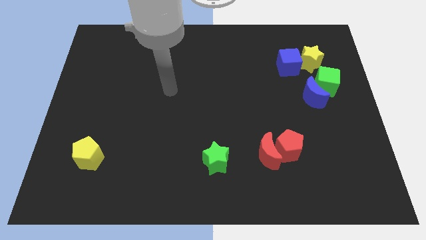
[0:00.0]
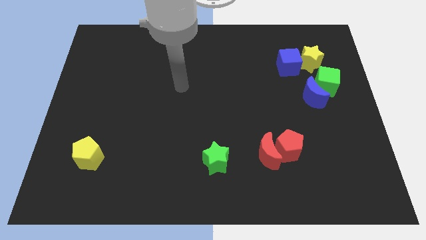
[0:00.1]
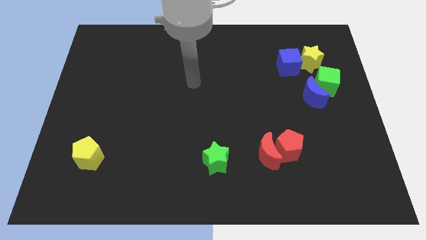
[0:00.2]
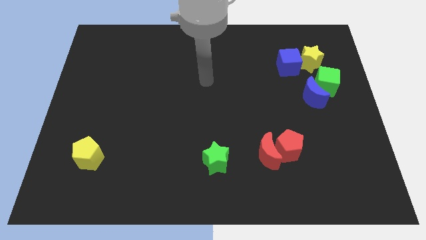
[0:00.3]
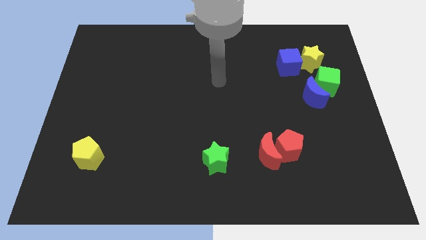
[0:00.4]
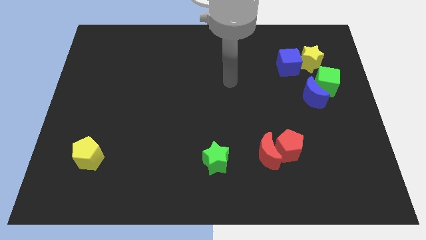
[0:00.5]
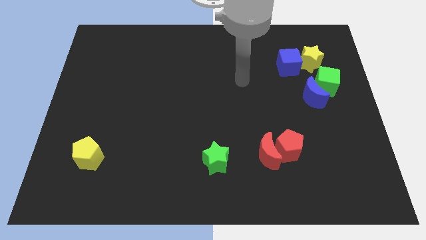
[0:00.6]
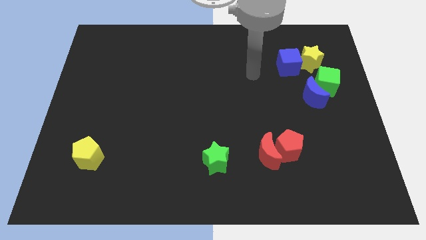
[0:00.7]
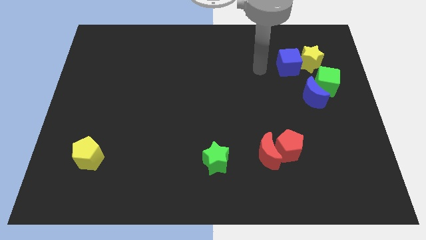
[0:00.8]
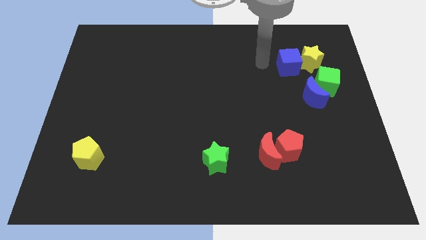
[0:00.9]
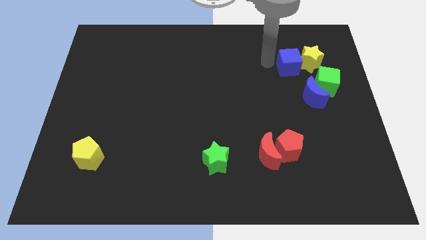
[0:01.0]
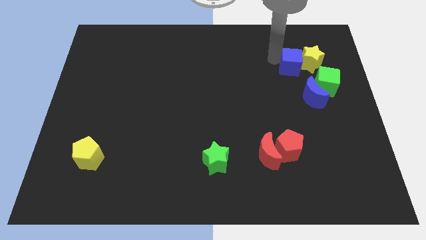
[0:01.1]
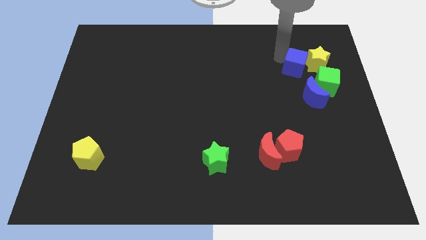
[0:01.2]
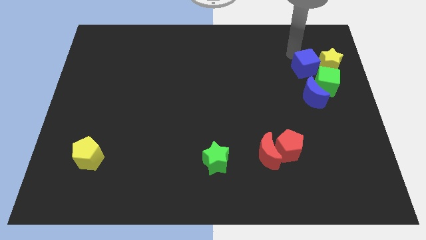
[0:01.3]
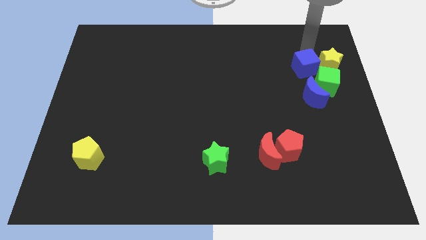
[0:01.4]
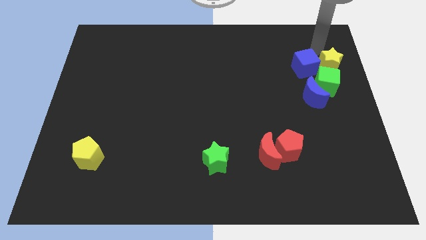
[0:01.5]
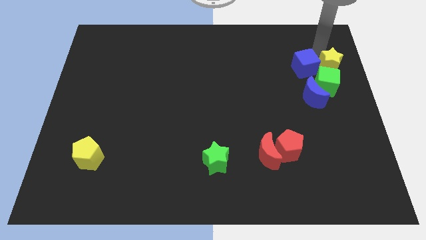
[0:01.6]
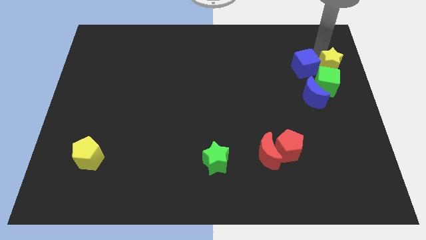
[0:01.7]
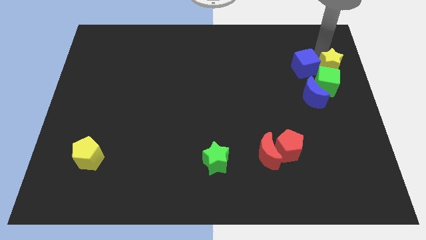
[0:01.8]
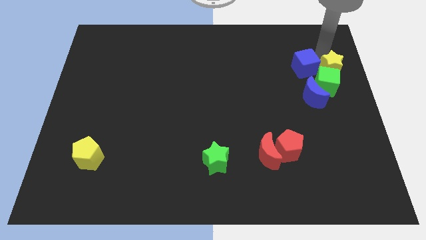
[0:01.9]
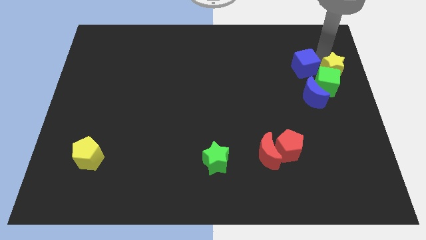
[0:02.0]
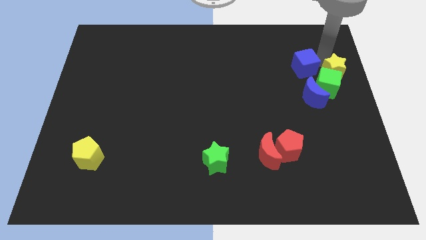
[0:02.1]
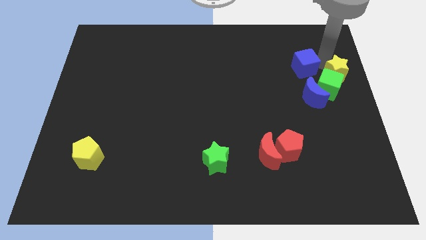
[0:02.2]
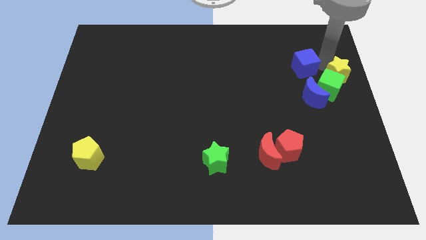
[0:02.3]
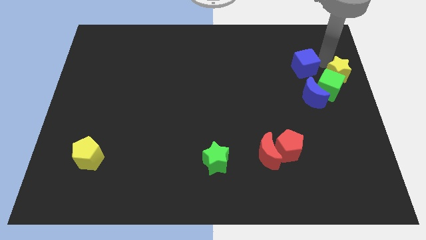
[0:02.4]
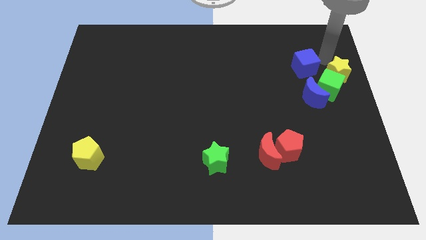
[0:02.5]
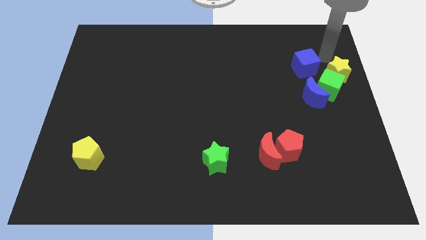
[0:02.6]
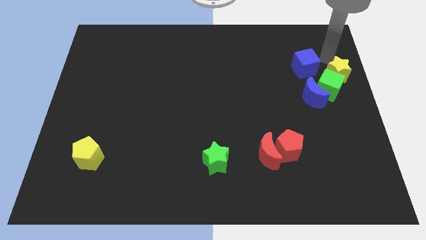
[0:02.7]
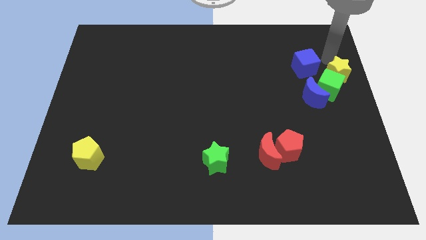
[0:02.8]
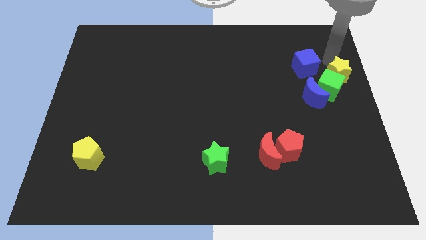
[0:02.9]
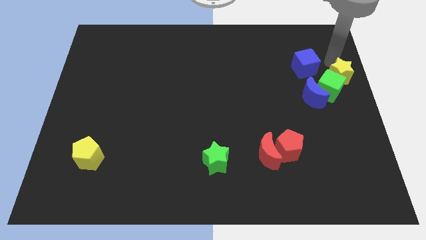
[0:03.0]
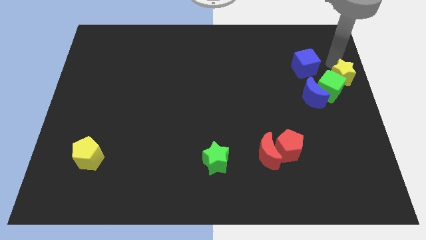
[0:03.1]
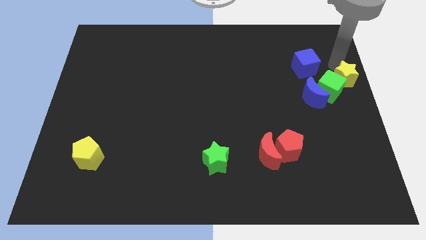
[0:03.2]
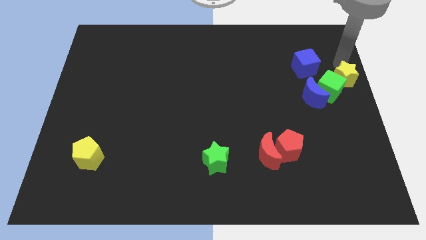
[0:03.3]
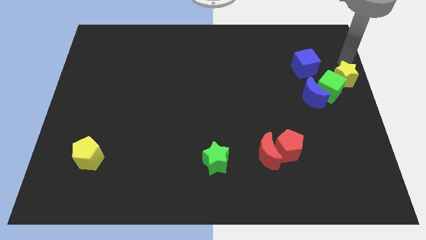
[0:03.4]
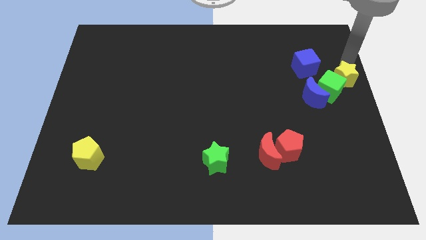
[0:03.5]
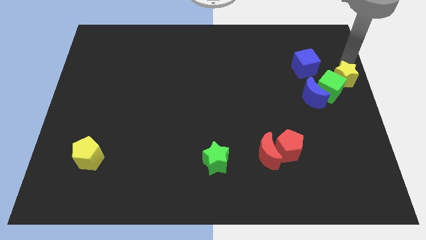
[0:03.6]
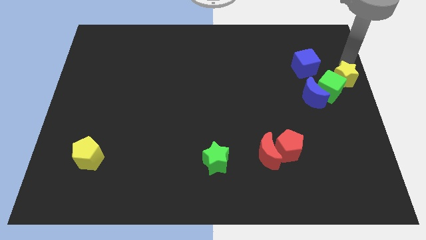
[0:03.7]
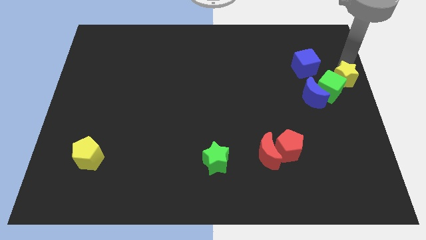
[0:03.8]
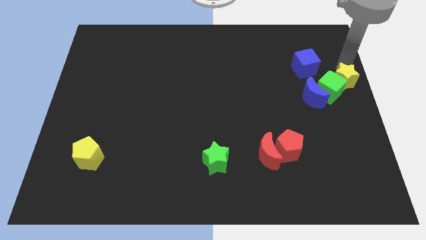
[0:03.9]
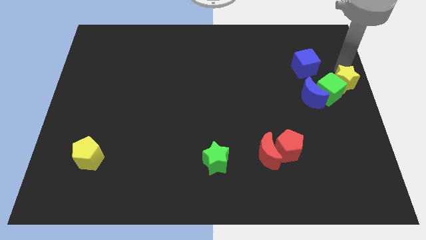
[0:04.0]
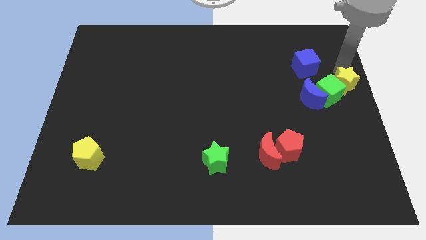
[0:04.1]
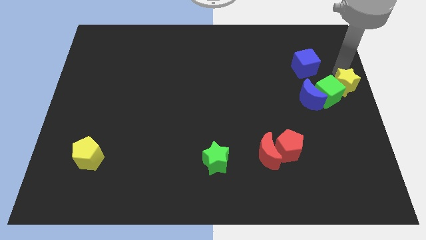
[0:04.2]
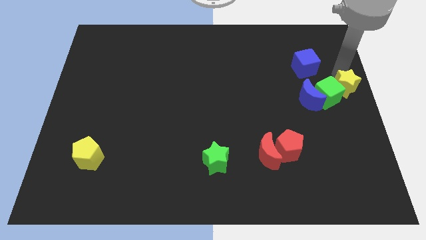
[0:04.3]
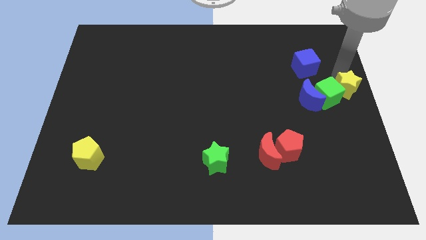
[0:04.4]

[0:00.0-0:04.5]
slightly slide the yellow star downwards

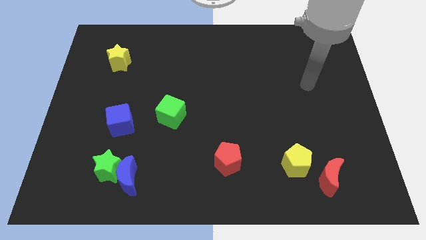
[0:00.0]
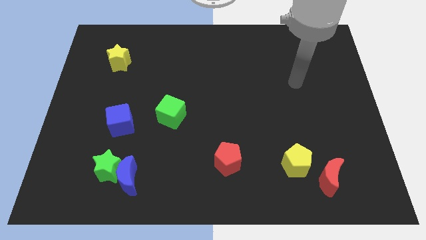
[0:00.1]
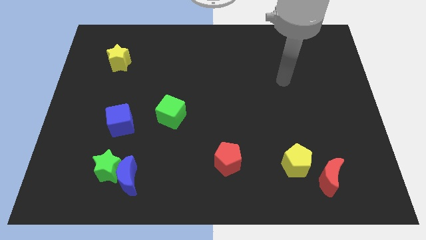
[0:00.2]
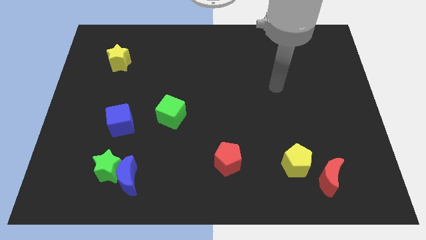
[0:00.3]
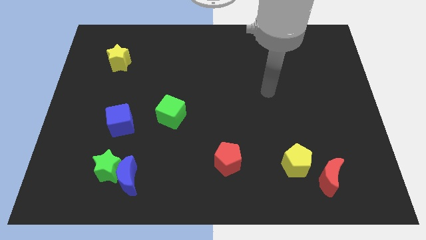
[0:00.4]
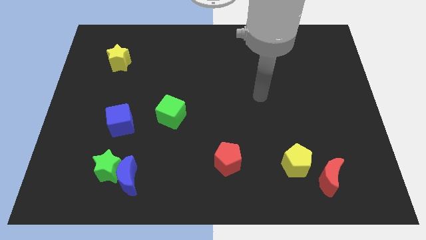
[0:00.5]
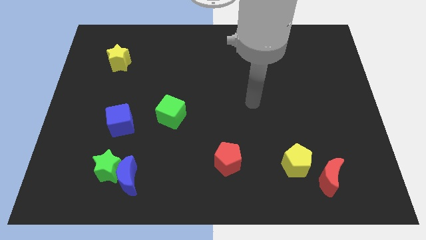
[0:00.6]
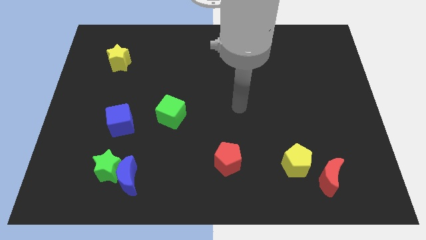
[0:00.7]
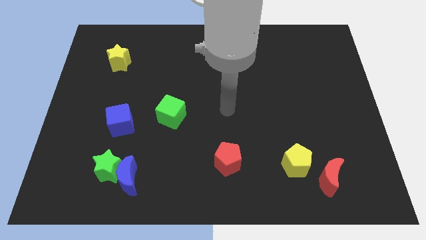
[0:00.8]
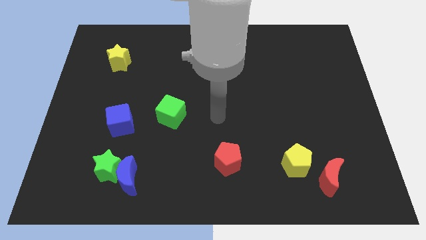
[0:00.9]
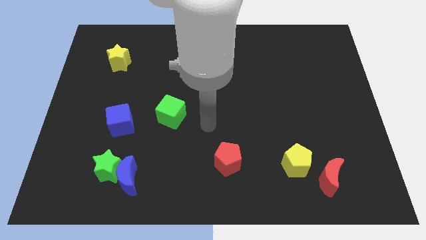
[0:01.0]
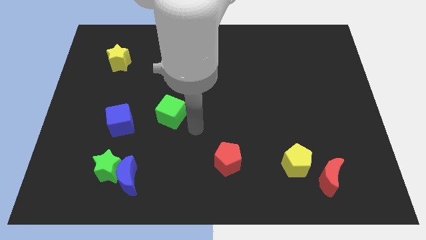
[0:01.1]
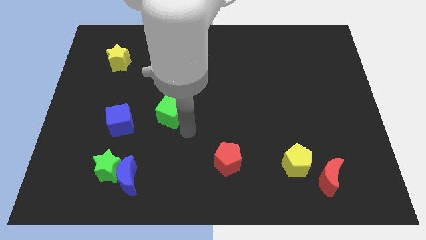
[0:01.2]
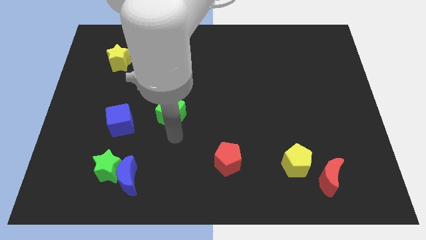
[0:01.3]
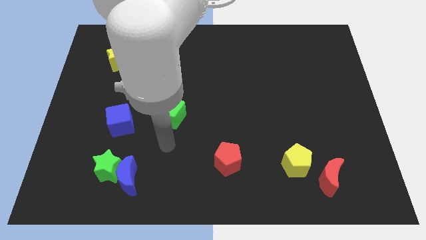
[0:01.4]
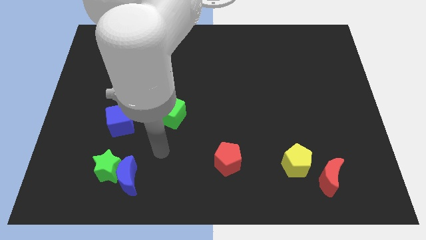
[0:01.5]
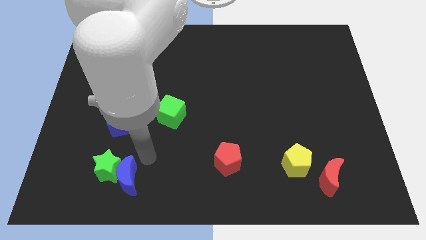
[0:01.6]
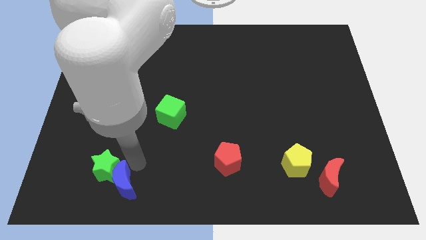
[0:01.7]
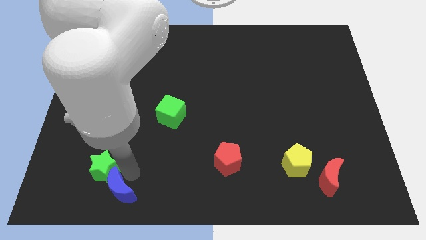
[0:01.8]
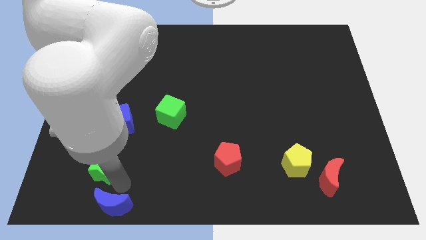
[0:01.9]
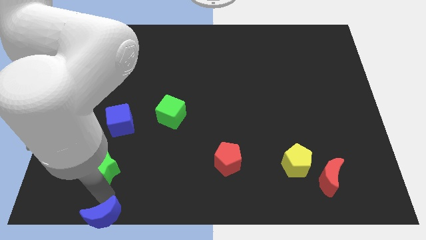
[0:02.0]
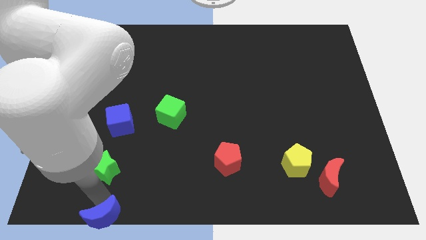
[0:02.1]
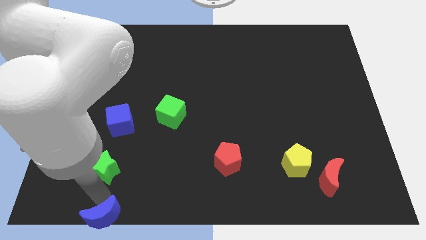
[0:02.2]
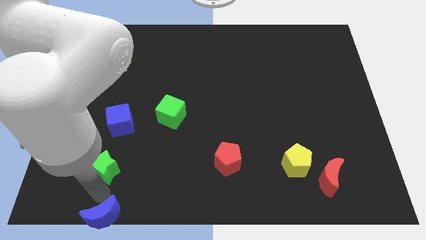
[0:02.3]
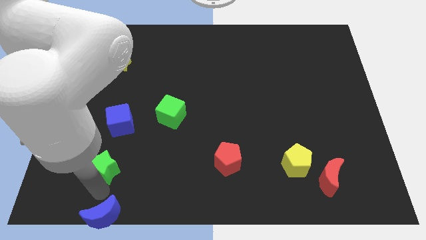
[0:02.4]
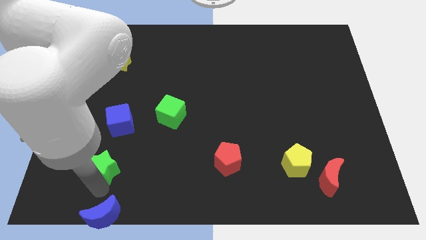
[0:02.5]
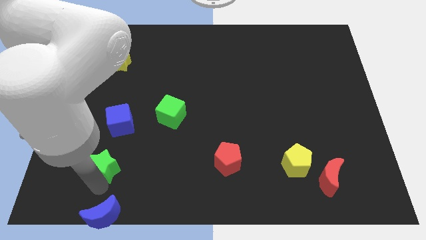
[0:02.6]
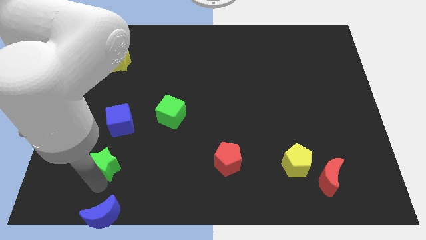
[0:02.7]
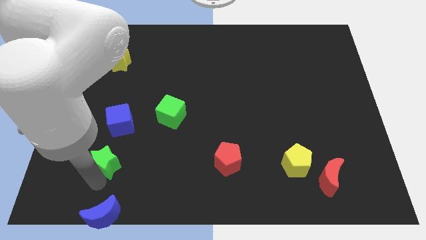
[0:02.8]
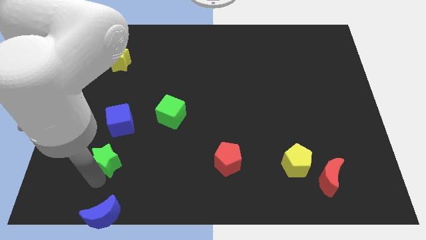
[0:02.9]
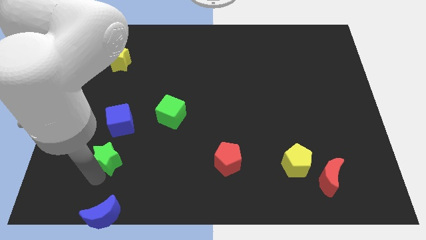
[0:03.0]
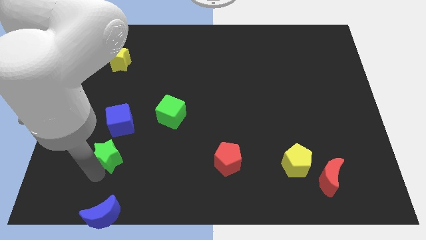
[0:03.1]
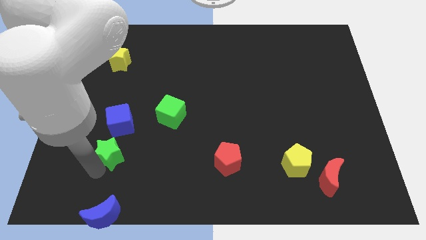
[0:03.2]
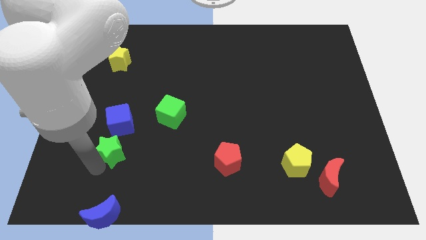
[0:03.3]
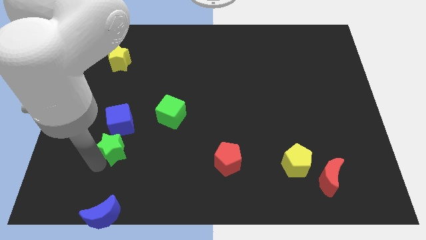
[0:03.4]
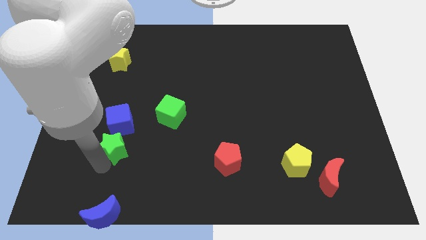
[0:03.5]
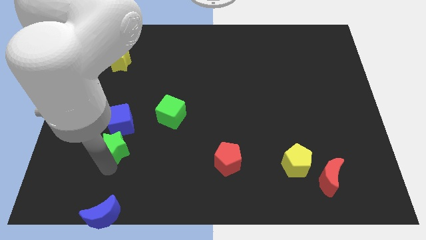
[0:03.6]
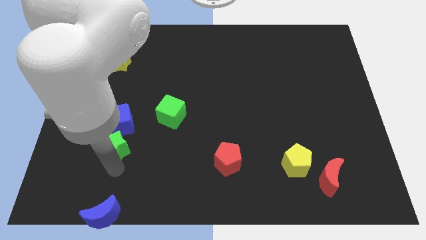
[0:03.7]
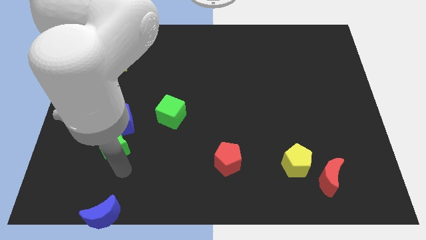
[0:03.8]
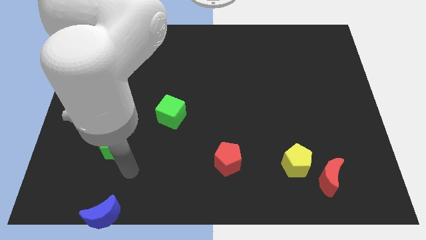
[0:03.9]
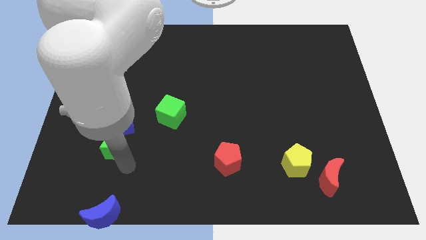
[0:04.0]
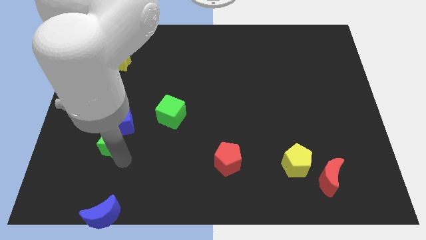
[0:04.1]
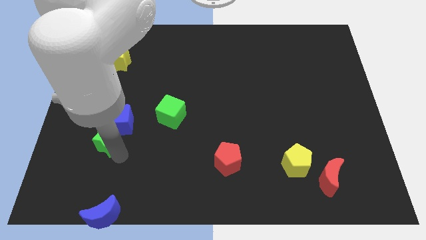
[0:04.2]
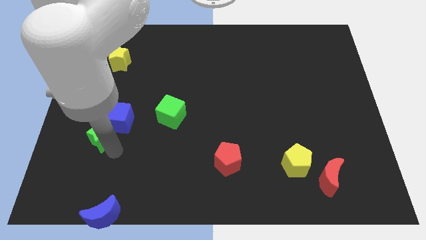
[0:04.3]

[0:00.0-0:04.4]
push the green star up a little
